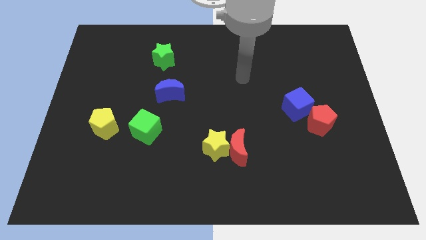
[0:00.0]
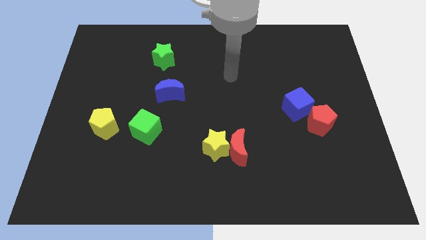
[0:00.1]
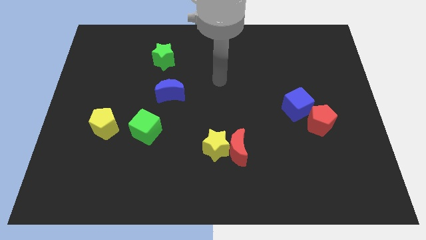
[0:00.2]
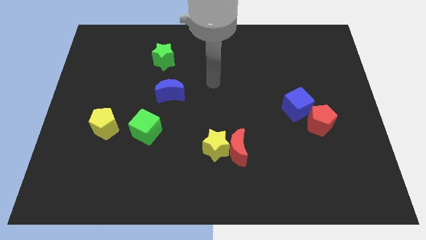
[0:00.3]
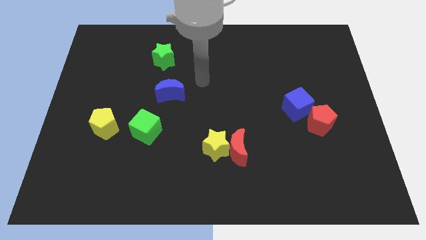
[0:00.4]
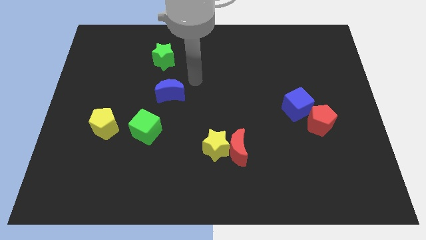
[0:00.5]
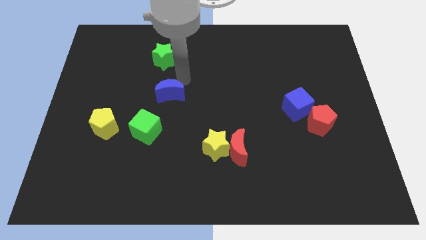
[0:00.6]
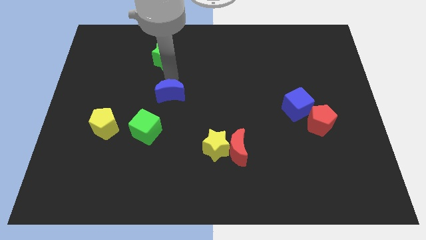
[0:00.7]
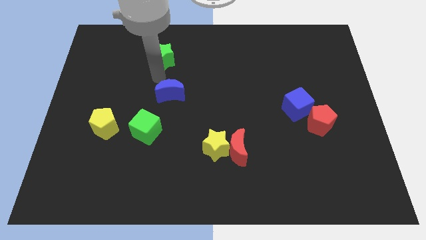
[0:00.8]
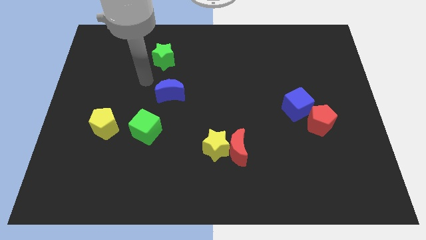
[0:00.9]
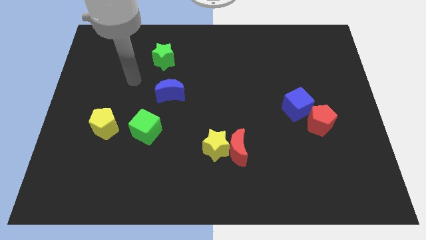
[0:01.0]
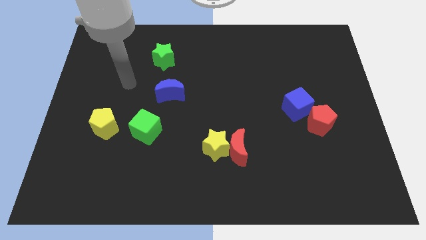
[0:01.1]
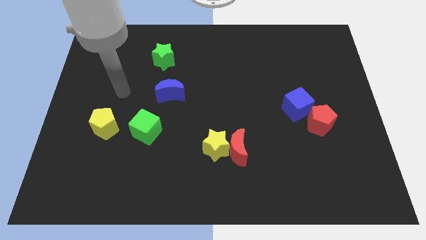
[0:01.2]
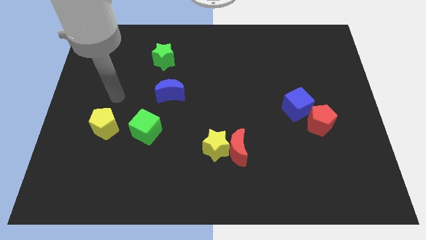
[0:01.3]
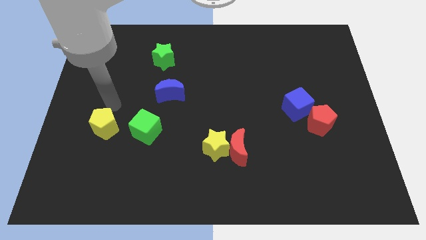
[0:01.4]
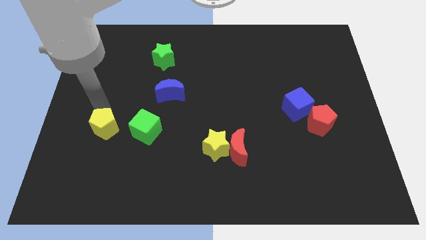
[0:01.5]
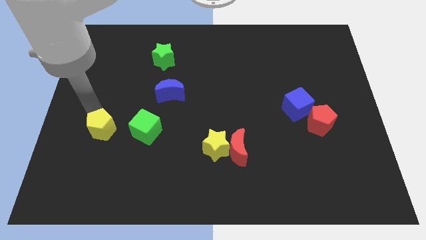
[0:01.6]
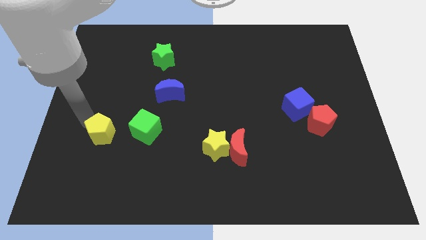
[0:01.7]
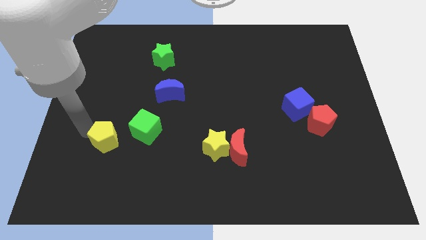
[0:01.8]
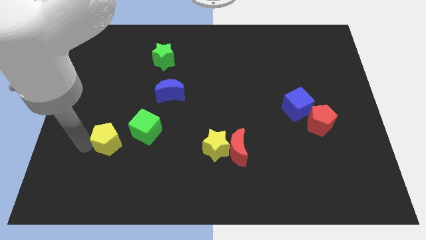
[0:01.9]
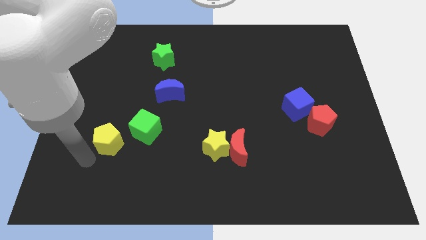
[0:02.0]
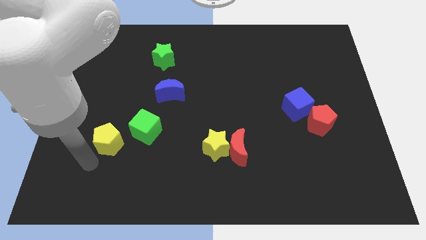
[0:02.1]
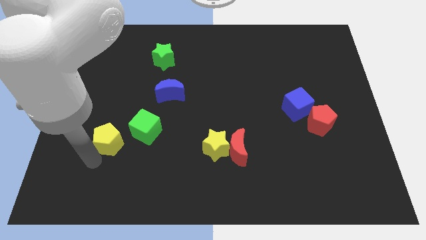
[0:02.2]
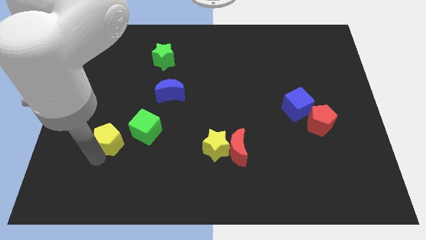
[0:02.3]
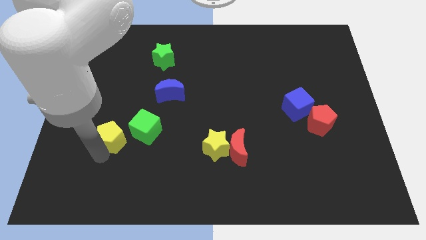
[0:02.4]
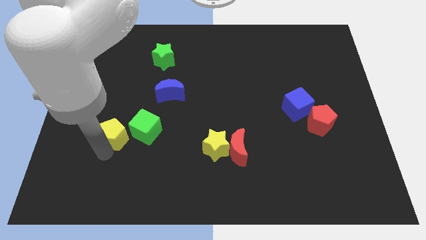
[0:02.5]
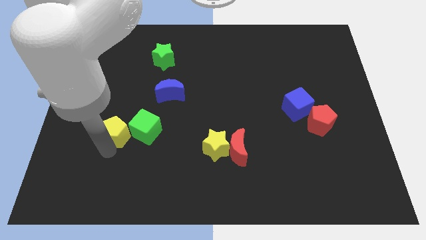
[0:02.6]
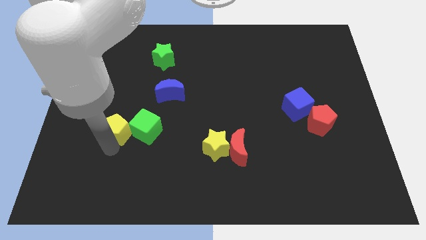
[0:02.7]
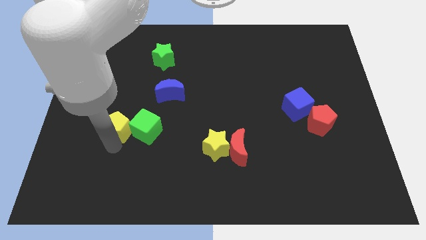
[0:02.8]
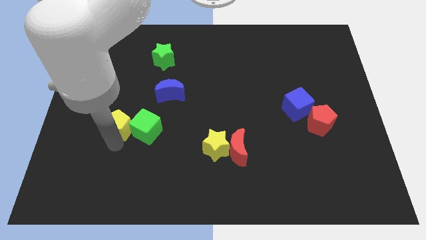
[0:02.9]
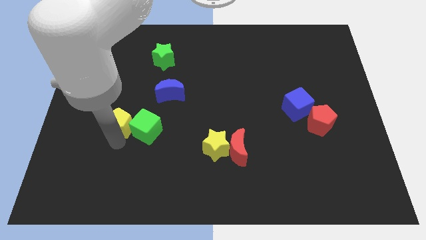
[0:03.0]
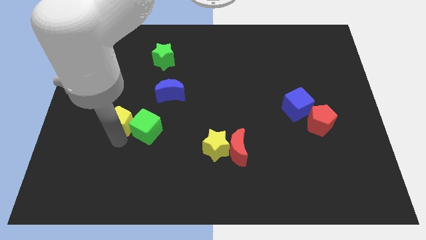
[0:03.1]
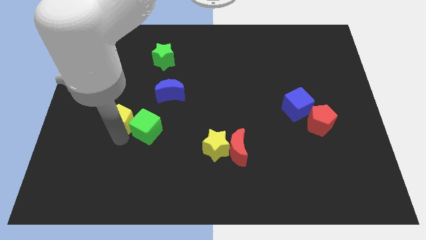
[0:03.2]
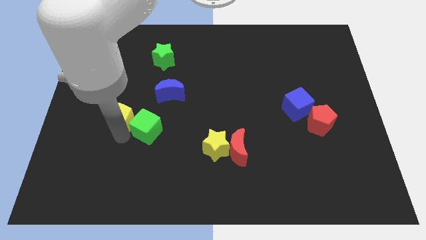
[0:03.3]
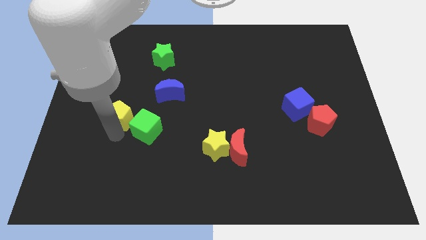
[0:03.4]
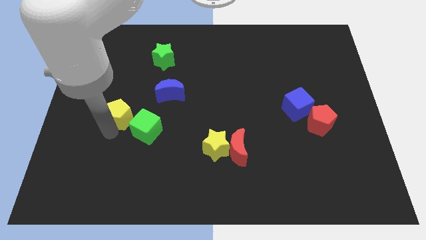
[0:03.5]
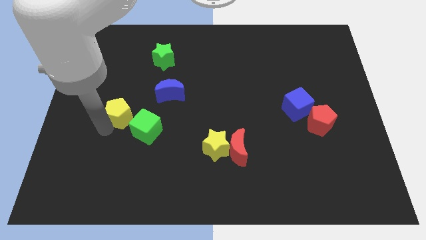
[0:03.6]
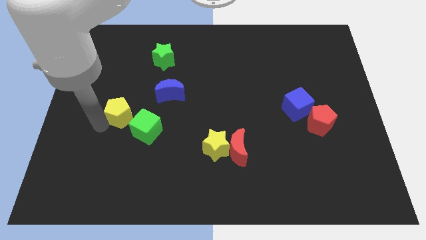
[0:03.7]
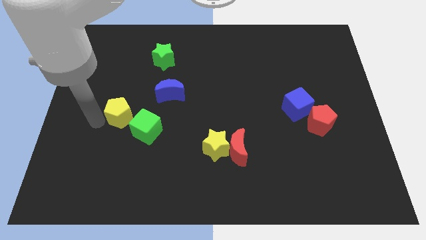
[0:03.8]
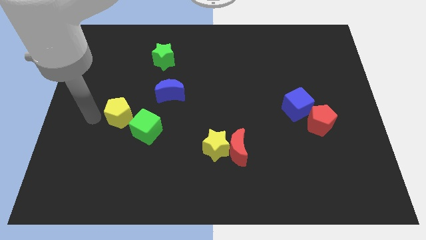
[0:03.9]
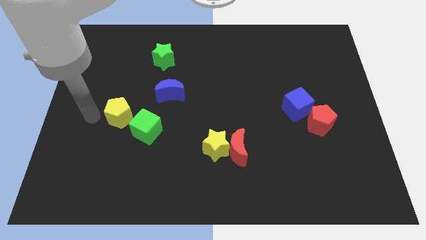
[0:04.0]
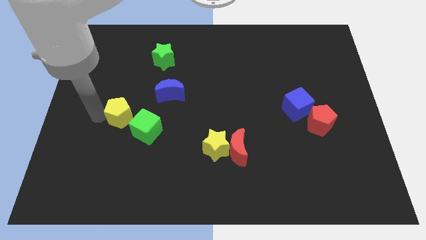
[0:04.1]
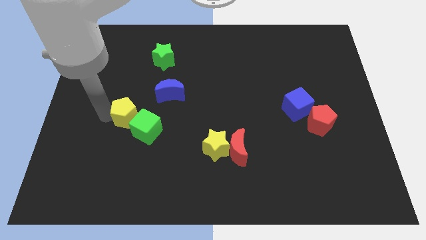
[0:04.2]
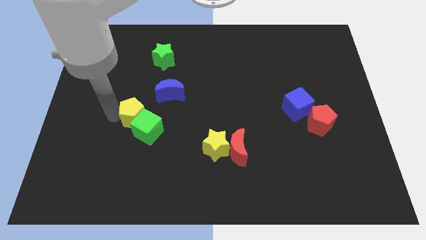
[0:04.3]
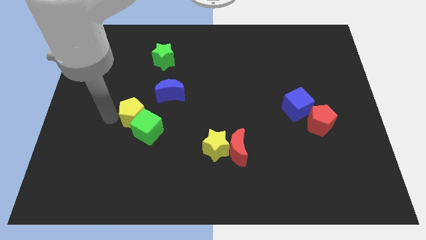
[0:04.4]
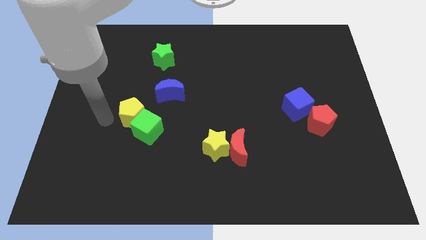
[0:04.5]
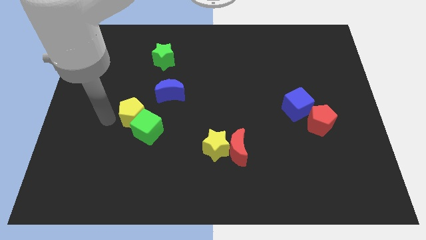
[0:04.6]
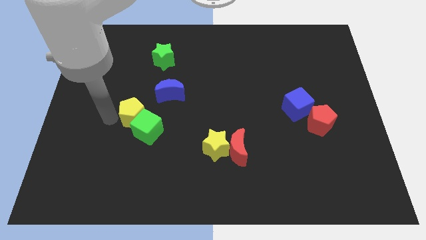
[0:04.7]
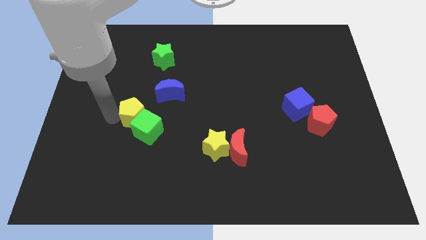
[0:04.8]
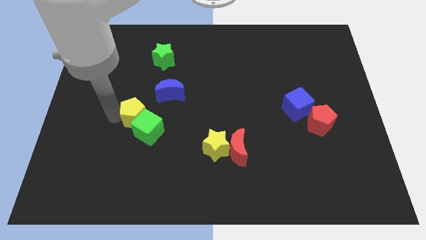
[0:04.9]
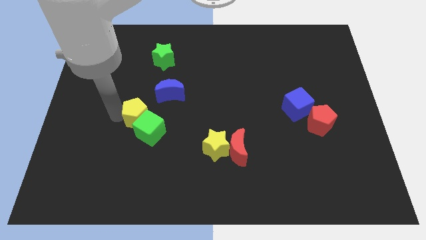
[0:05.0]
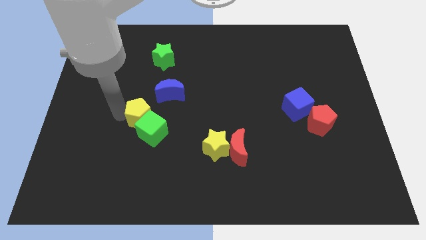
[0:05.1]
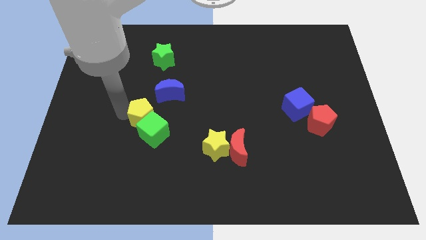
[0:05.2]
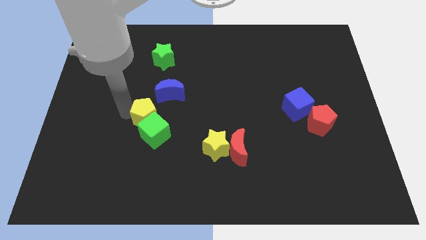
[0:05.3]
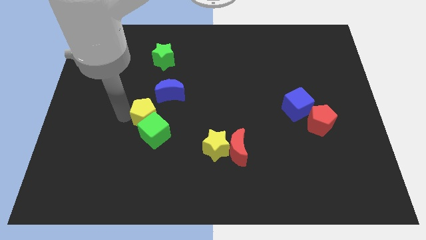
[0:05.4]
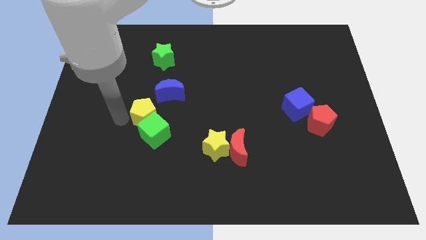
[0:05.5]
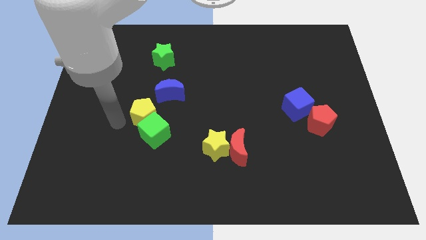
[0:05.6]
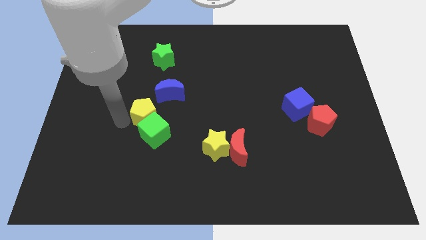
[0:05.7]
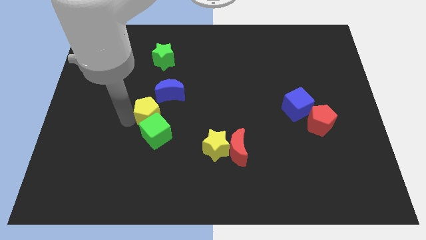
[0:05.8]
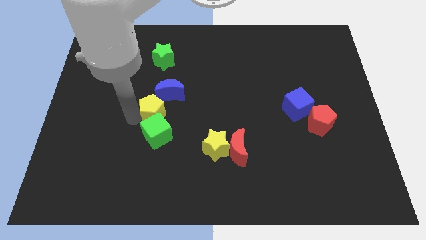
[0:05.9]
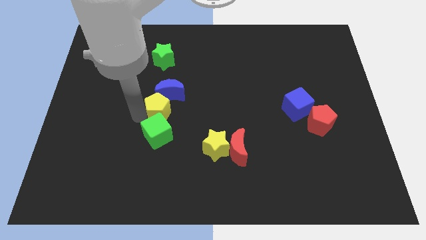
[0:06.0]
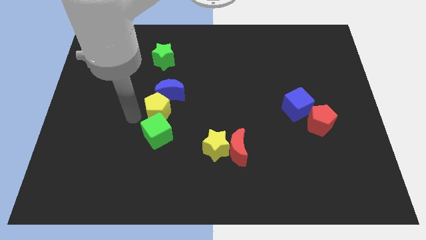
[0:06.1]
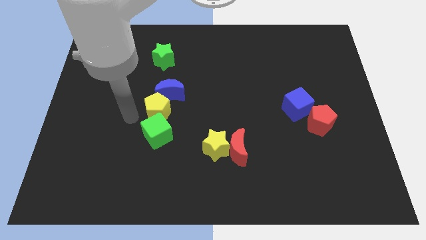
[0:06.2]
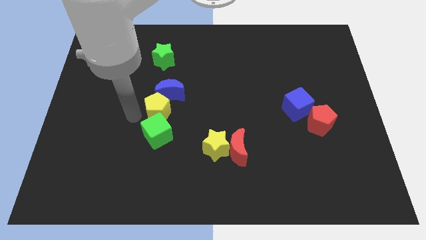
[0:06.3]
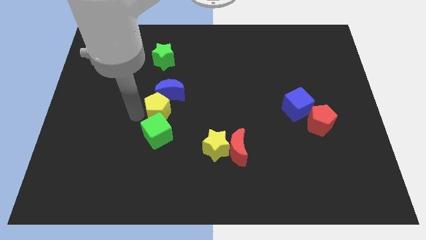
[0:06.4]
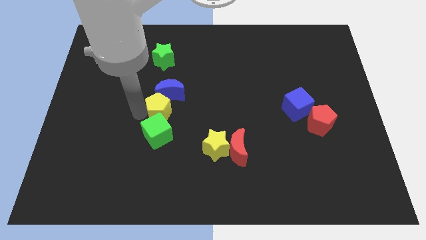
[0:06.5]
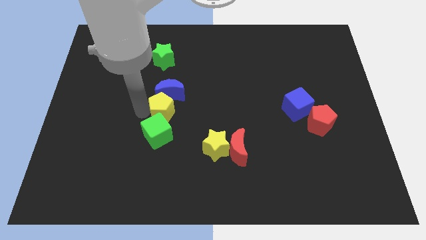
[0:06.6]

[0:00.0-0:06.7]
put the yellow pentagon to the center of the board
